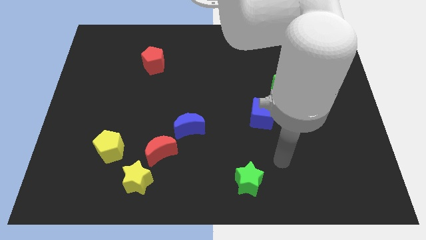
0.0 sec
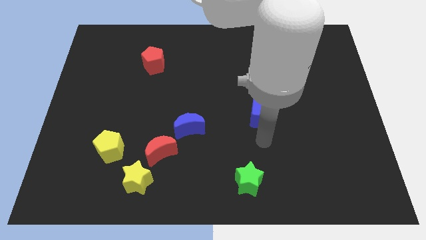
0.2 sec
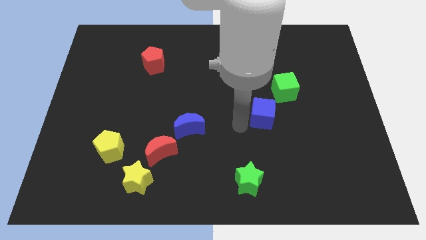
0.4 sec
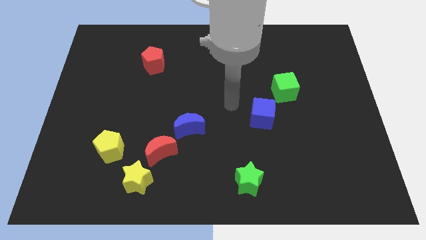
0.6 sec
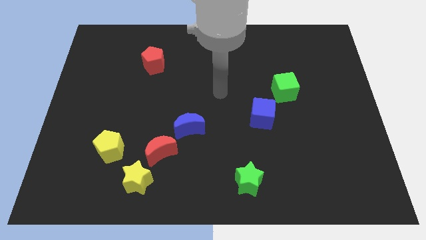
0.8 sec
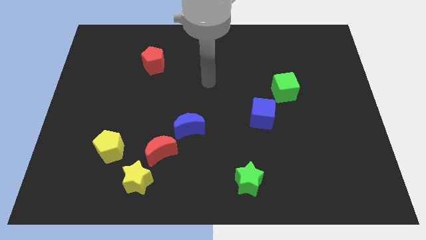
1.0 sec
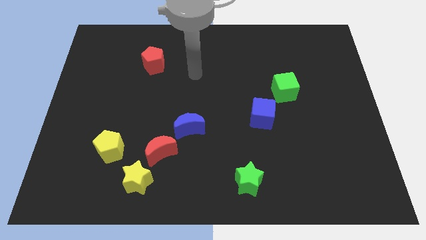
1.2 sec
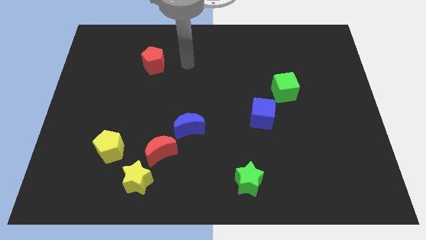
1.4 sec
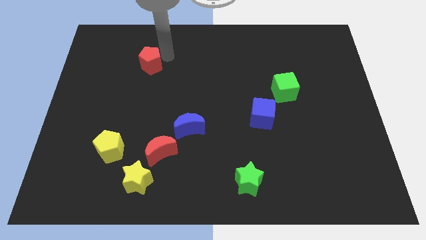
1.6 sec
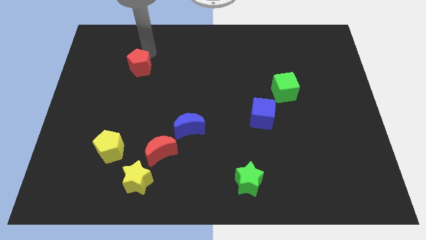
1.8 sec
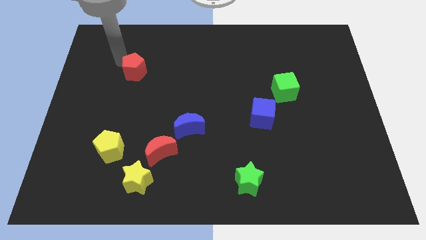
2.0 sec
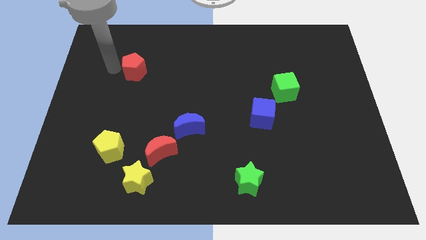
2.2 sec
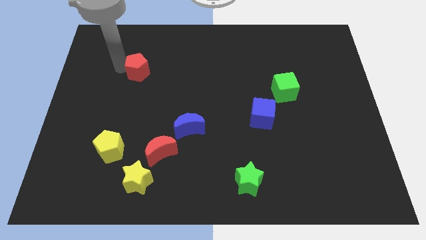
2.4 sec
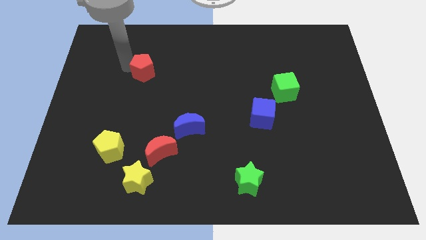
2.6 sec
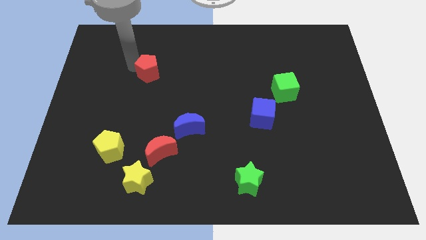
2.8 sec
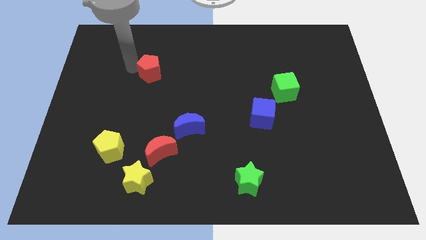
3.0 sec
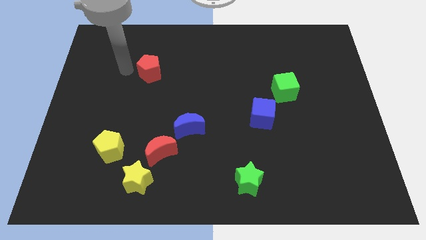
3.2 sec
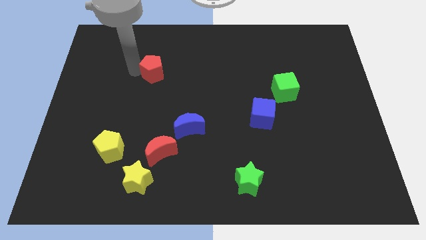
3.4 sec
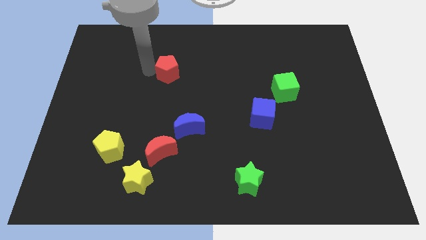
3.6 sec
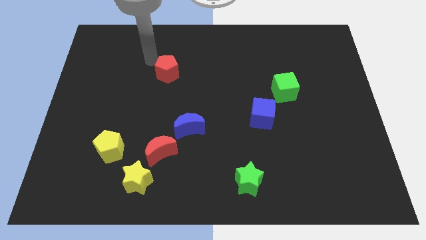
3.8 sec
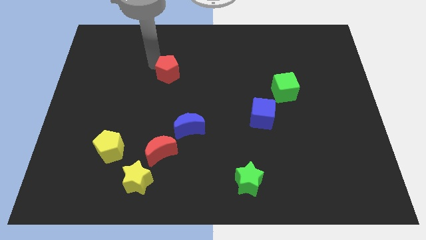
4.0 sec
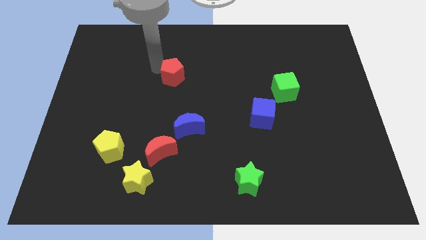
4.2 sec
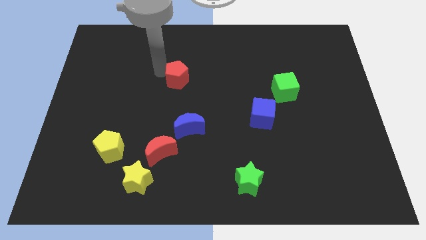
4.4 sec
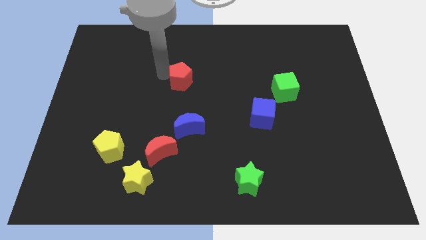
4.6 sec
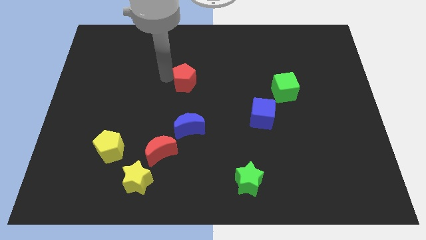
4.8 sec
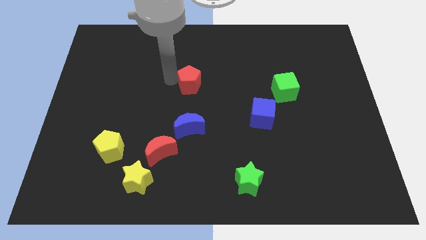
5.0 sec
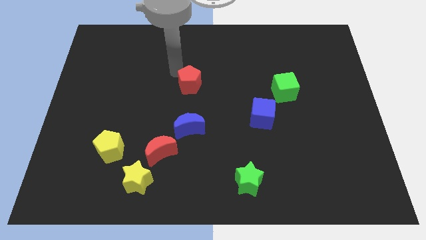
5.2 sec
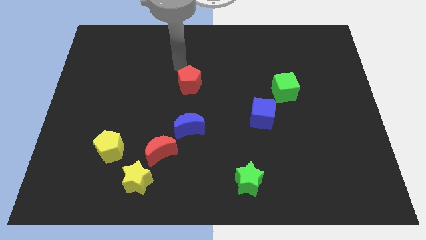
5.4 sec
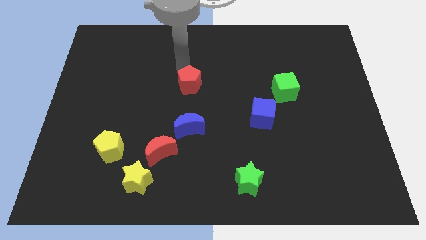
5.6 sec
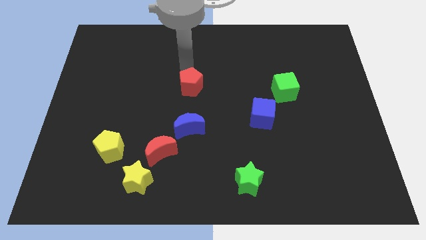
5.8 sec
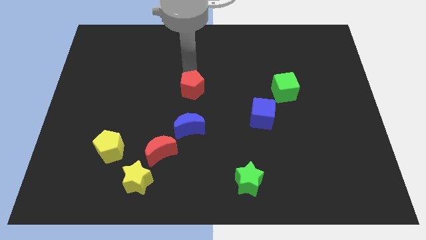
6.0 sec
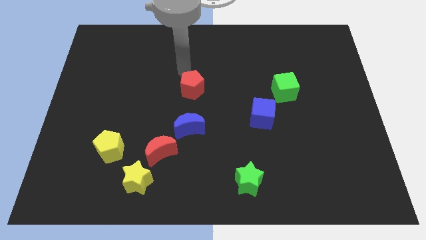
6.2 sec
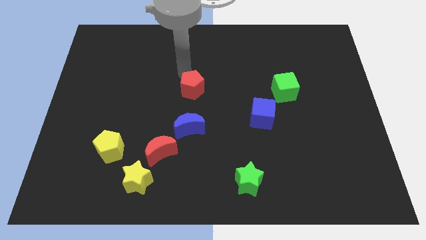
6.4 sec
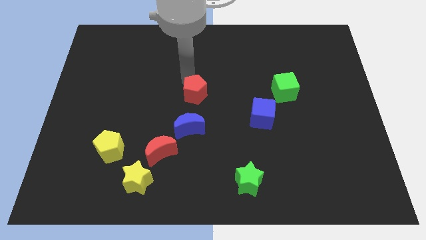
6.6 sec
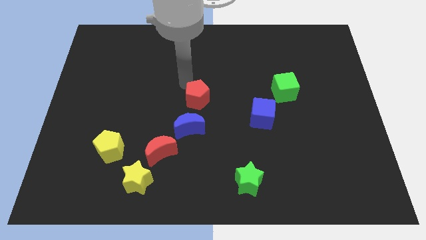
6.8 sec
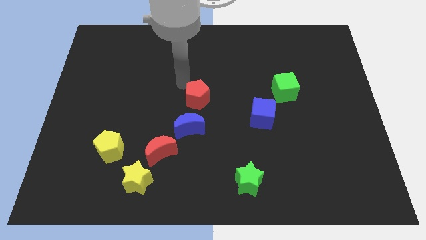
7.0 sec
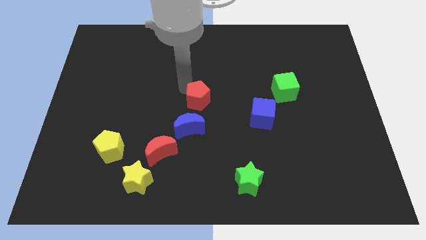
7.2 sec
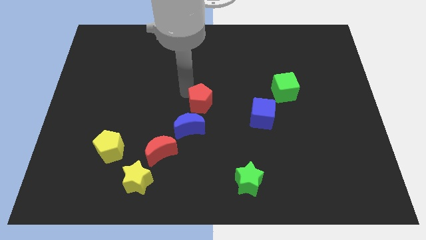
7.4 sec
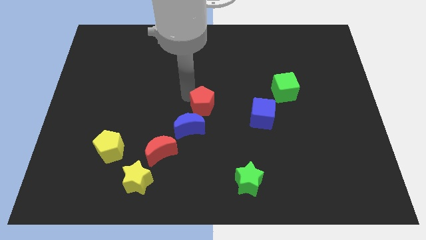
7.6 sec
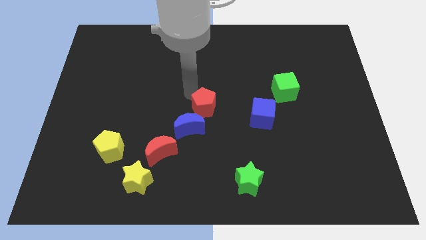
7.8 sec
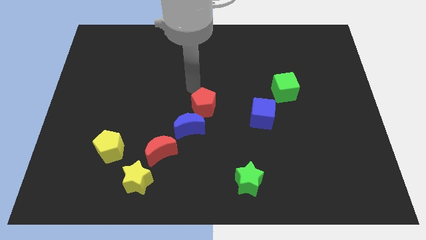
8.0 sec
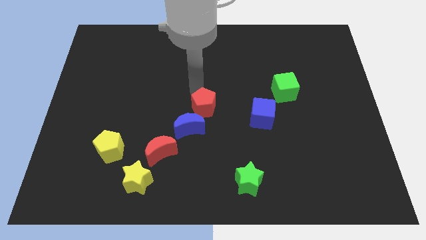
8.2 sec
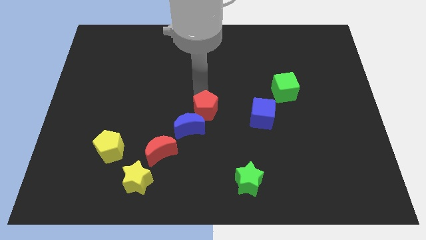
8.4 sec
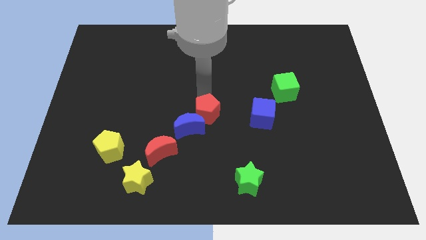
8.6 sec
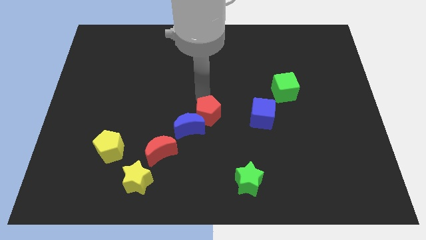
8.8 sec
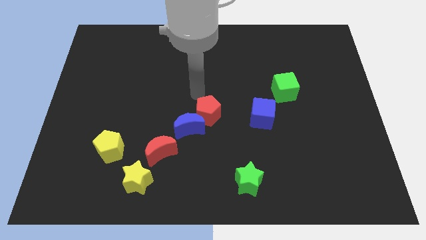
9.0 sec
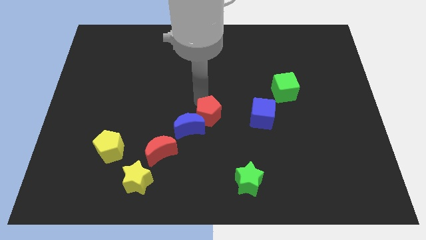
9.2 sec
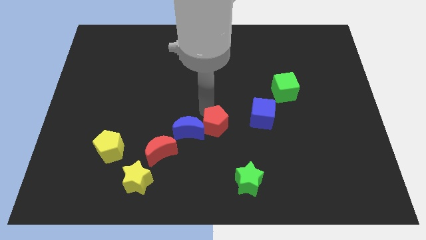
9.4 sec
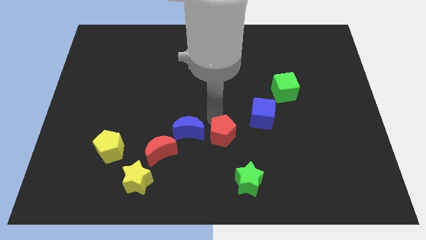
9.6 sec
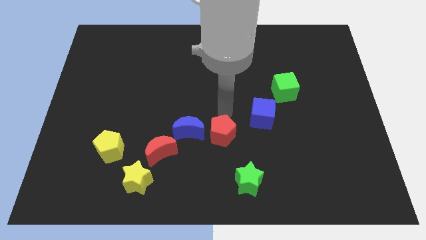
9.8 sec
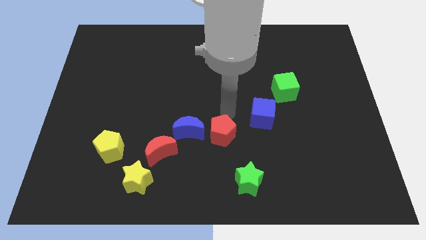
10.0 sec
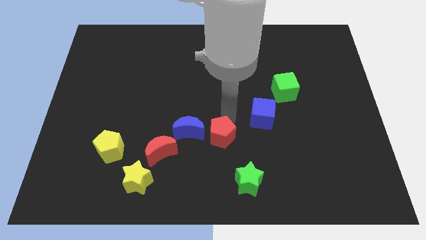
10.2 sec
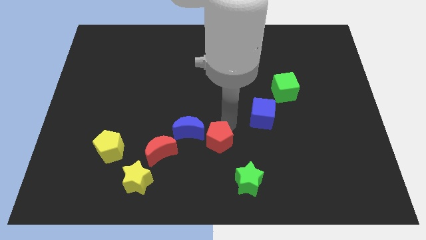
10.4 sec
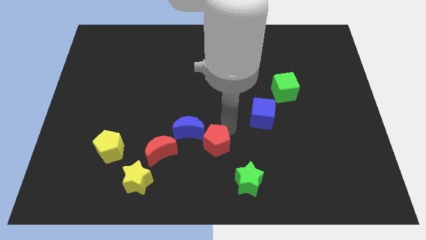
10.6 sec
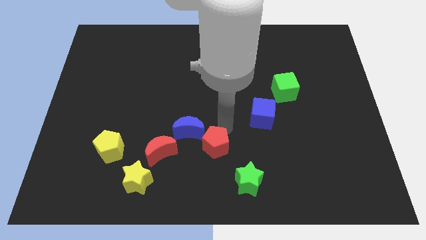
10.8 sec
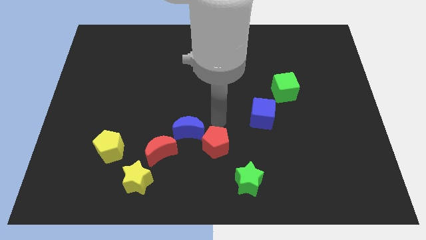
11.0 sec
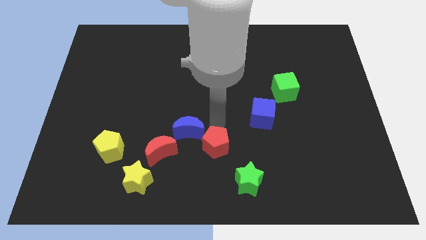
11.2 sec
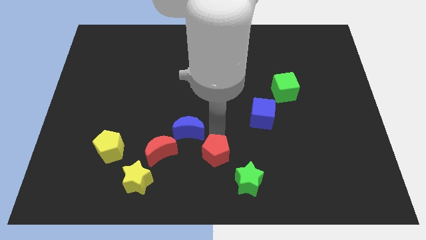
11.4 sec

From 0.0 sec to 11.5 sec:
push the red pentagon to the bottom side

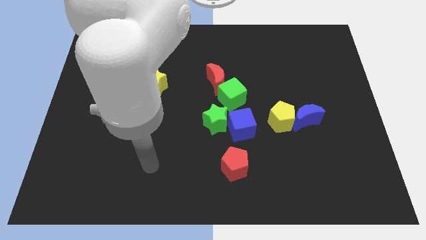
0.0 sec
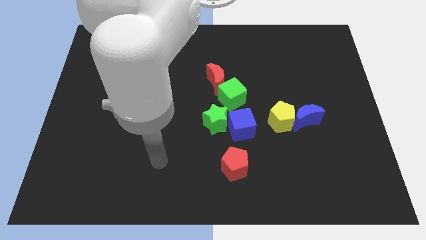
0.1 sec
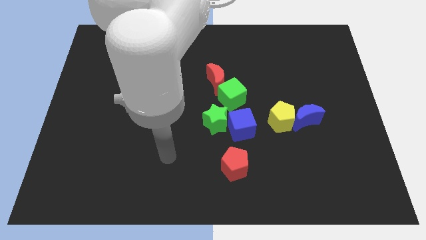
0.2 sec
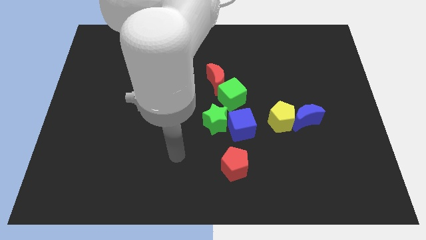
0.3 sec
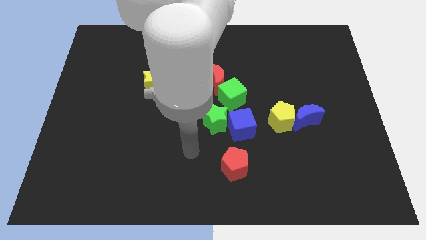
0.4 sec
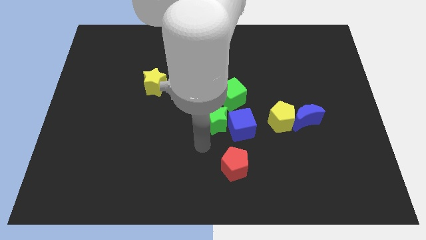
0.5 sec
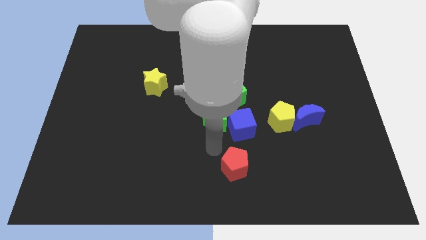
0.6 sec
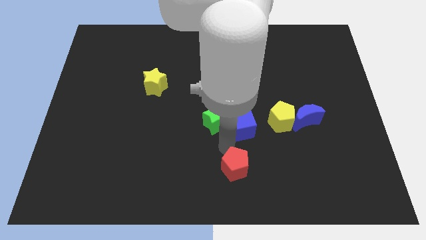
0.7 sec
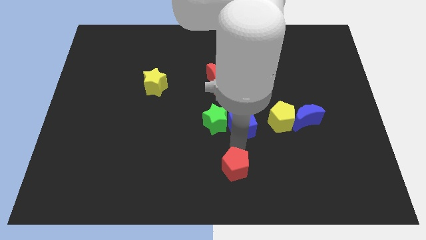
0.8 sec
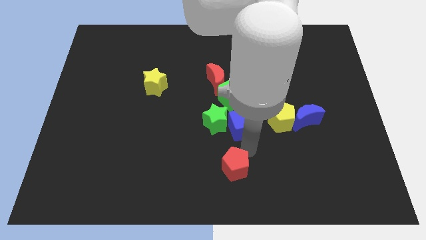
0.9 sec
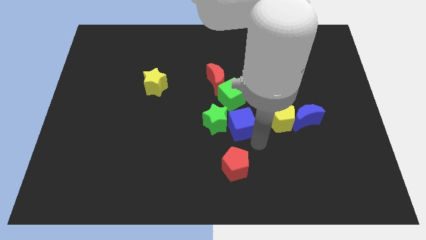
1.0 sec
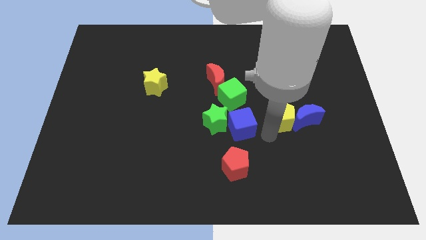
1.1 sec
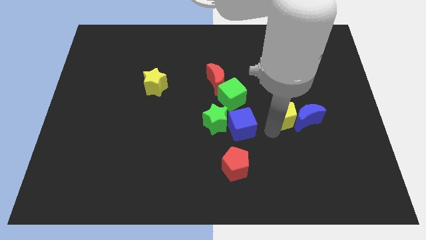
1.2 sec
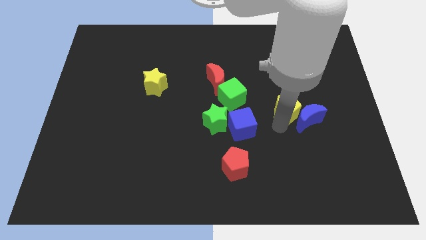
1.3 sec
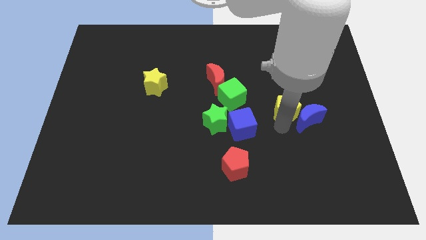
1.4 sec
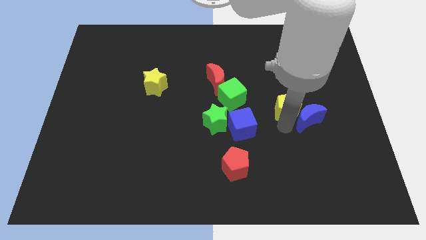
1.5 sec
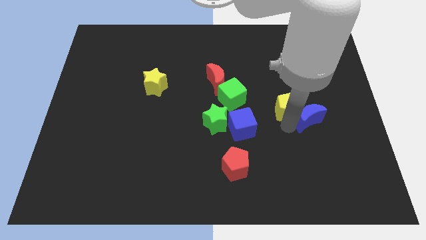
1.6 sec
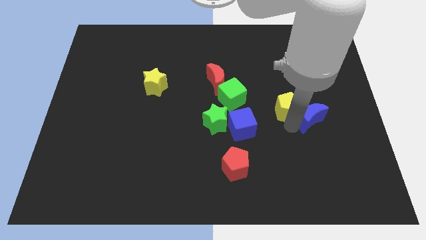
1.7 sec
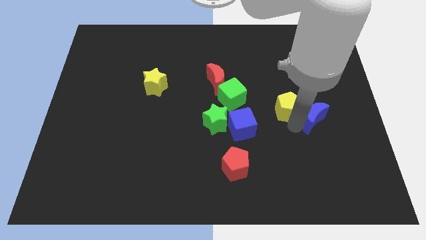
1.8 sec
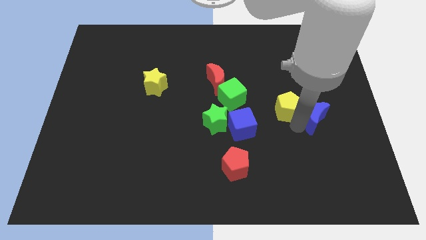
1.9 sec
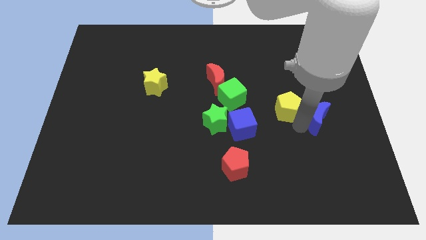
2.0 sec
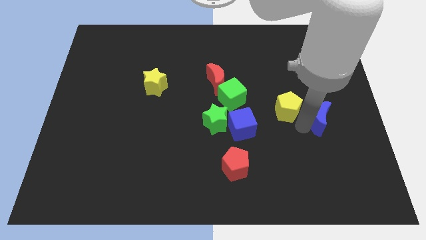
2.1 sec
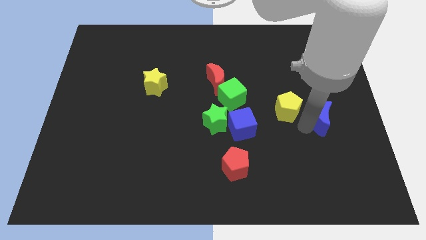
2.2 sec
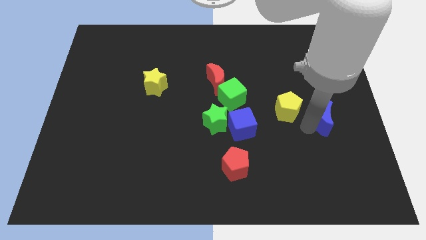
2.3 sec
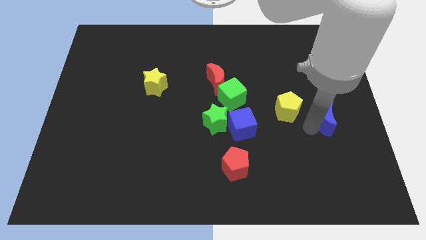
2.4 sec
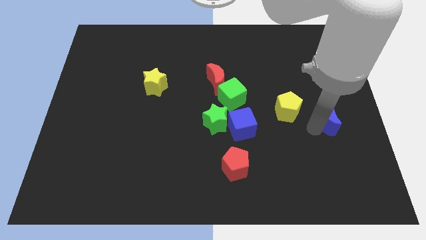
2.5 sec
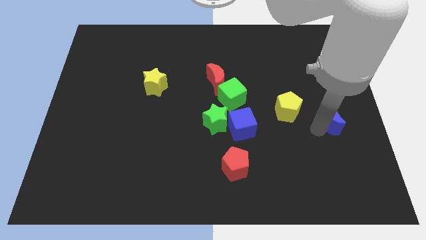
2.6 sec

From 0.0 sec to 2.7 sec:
push the blue moon to the center right
